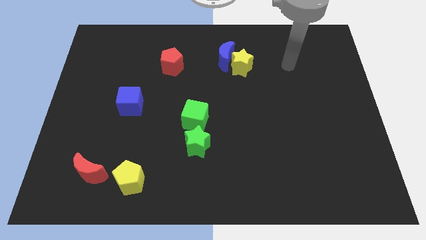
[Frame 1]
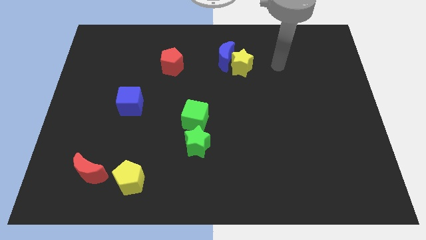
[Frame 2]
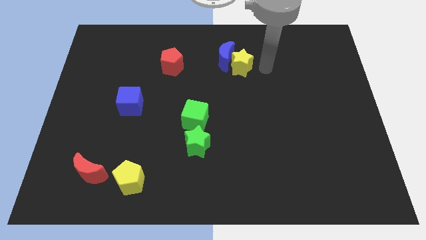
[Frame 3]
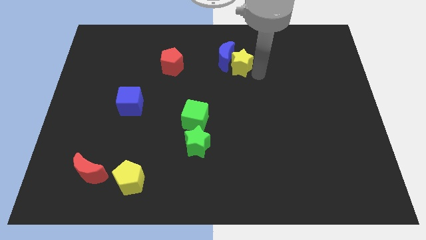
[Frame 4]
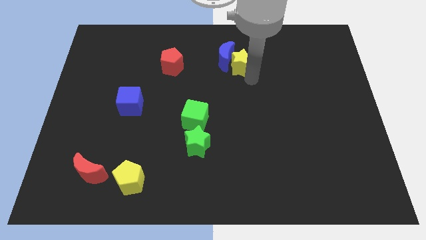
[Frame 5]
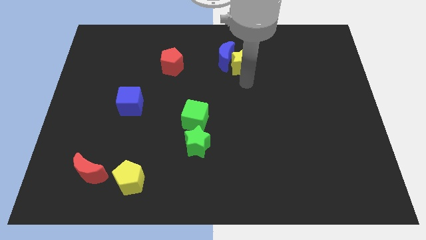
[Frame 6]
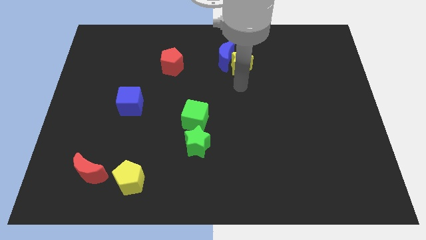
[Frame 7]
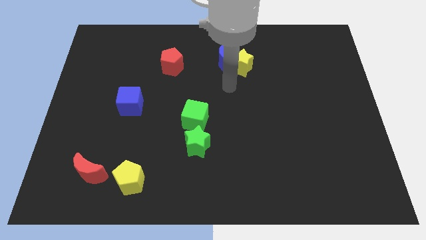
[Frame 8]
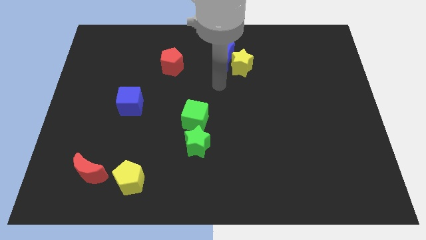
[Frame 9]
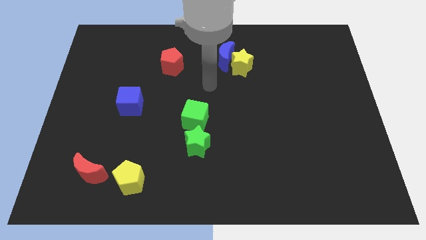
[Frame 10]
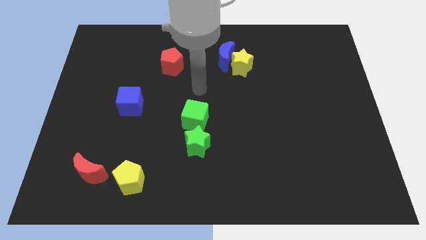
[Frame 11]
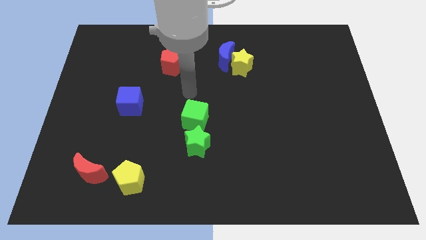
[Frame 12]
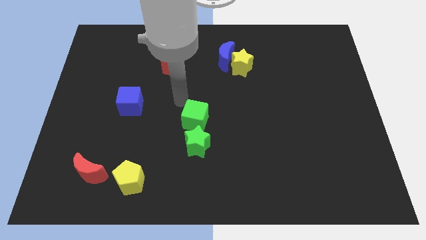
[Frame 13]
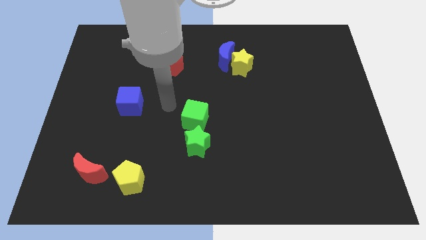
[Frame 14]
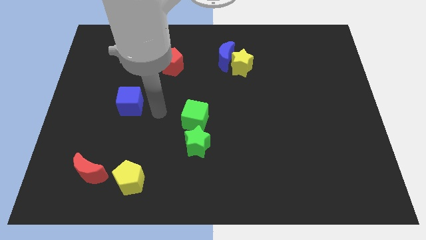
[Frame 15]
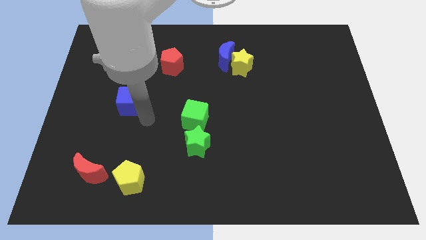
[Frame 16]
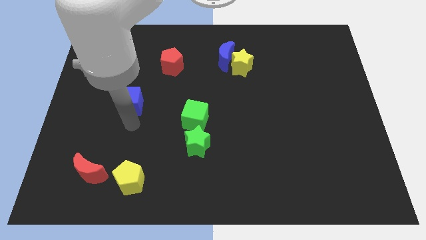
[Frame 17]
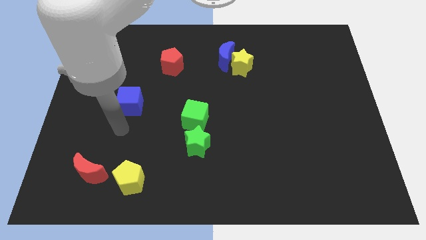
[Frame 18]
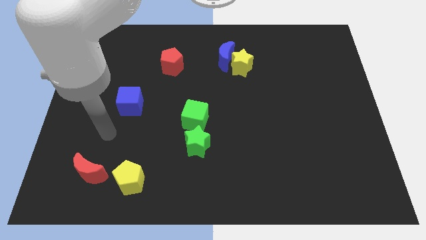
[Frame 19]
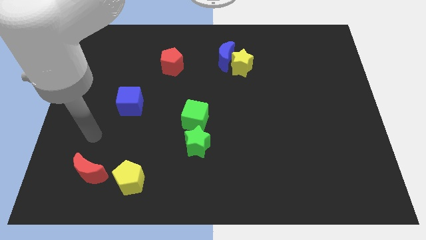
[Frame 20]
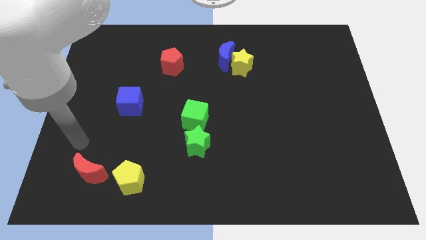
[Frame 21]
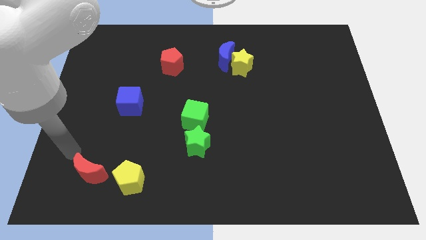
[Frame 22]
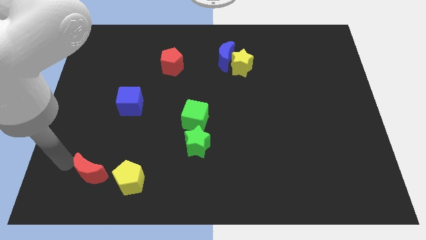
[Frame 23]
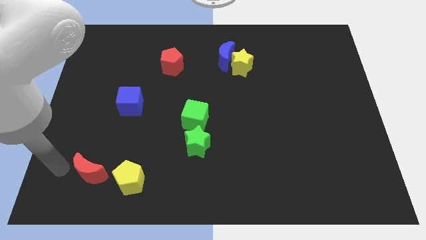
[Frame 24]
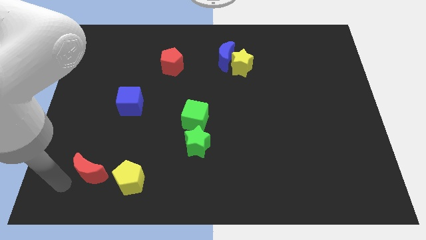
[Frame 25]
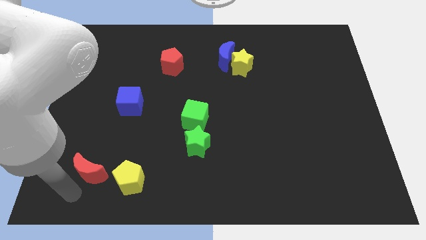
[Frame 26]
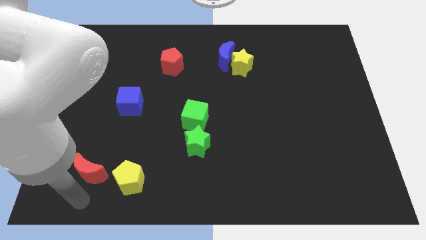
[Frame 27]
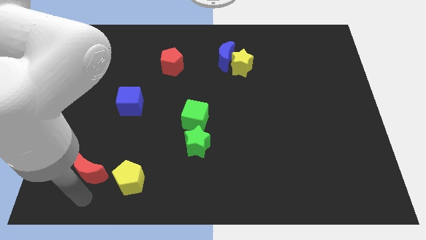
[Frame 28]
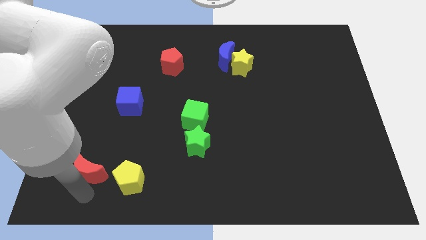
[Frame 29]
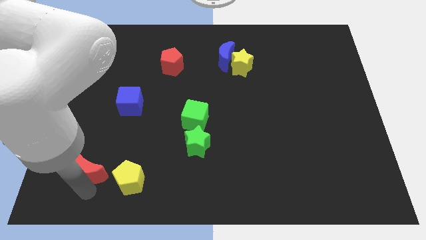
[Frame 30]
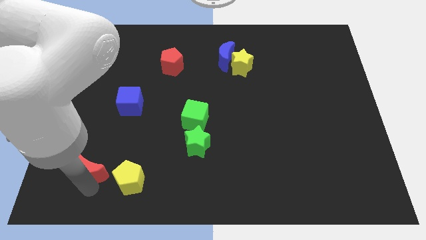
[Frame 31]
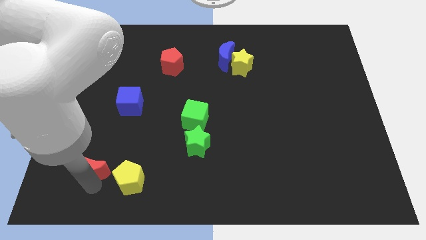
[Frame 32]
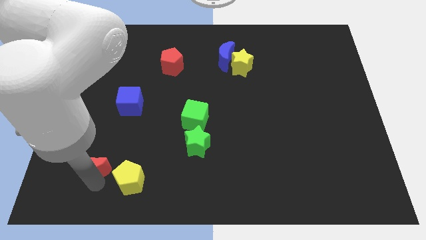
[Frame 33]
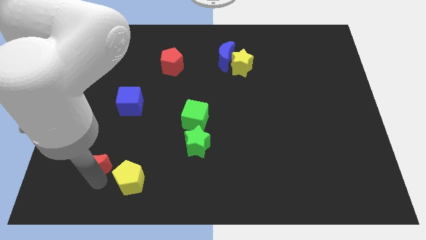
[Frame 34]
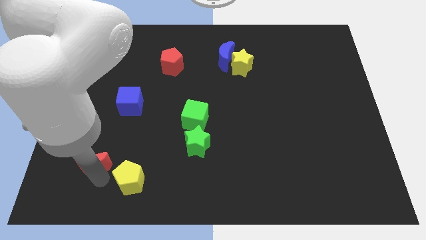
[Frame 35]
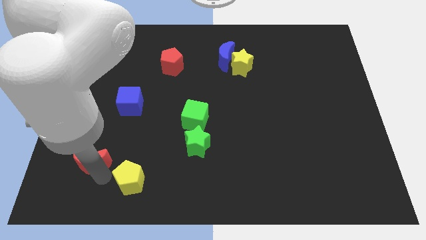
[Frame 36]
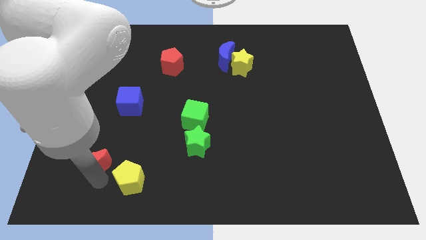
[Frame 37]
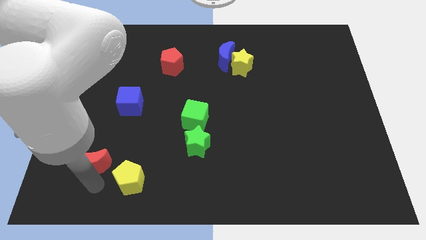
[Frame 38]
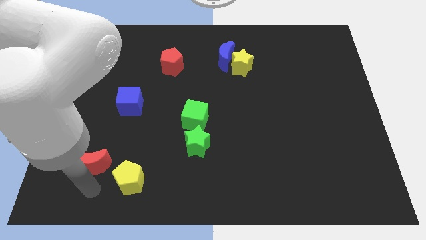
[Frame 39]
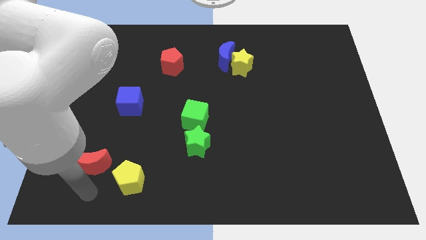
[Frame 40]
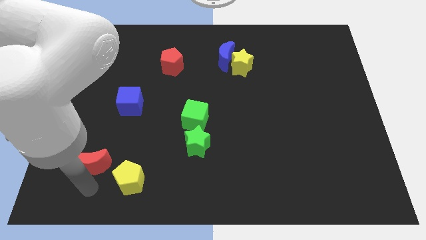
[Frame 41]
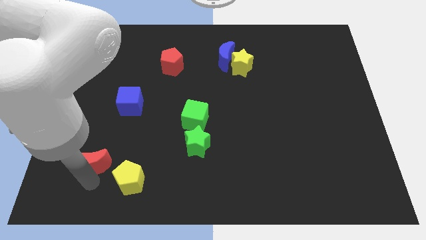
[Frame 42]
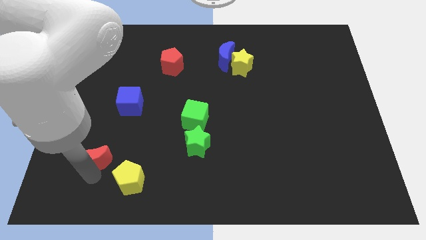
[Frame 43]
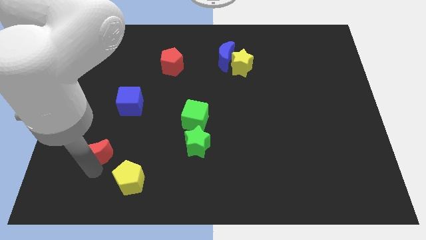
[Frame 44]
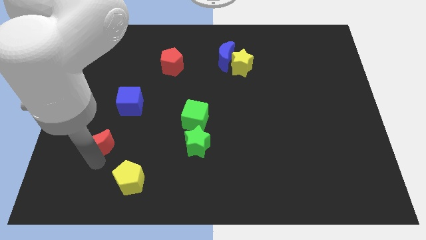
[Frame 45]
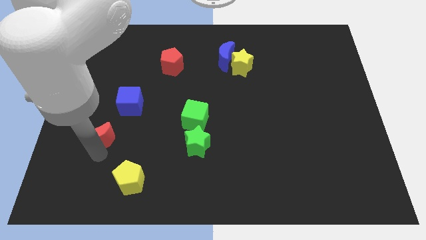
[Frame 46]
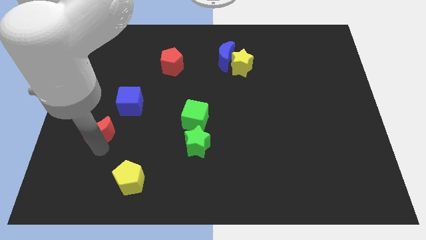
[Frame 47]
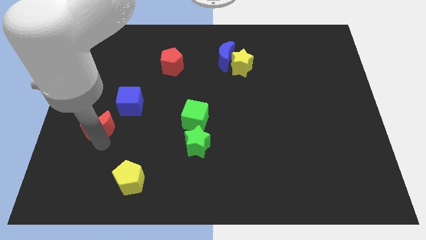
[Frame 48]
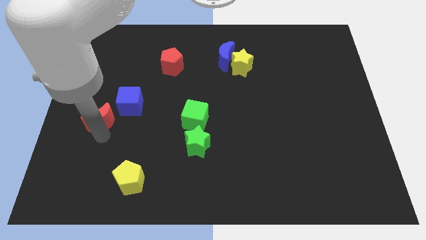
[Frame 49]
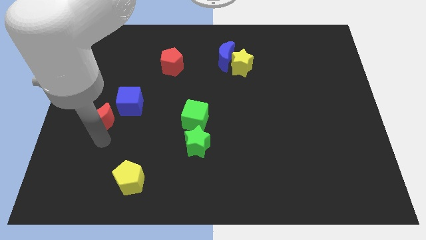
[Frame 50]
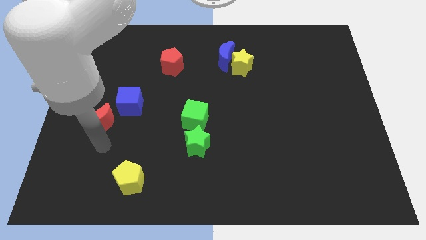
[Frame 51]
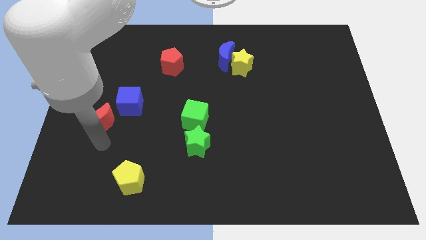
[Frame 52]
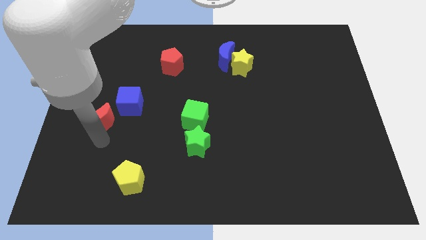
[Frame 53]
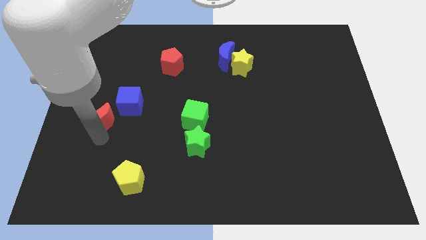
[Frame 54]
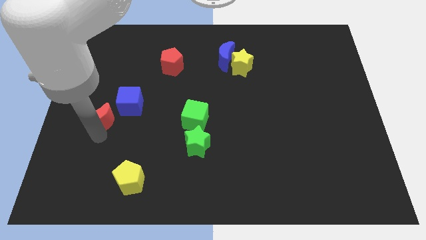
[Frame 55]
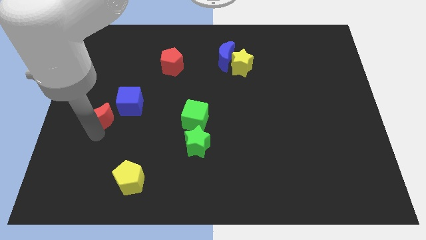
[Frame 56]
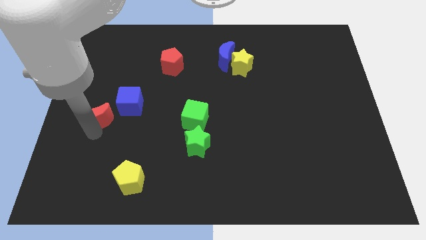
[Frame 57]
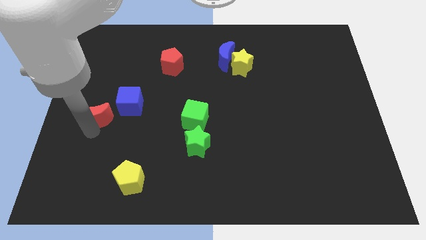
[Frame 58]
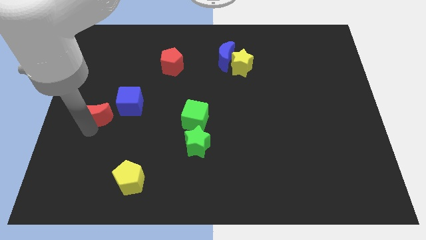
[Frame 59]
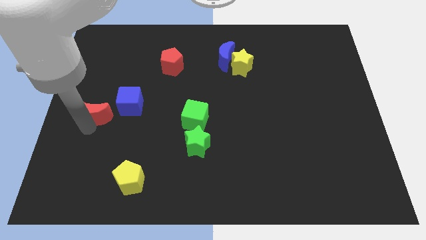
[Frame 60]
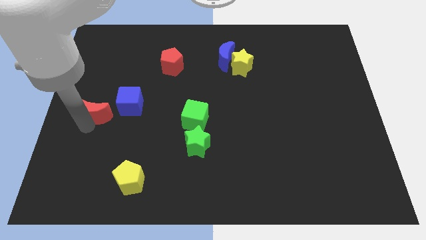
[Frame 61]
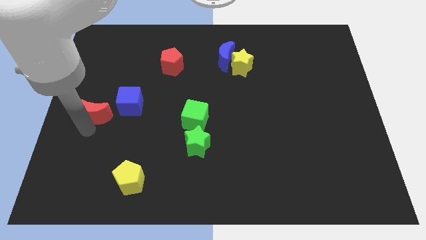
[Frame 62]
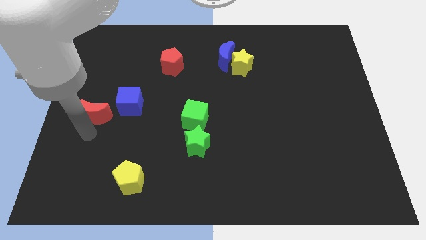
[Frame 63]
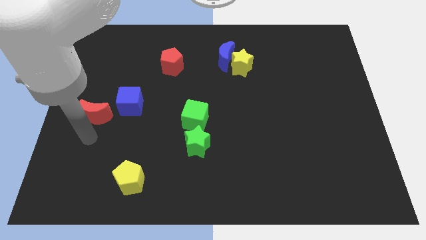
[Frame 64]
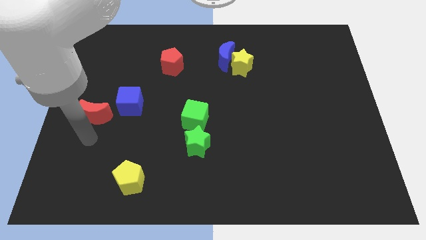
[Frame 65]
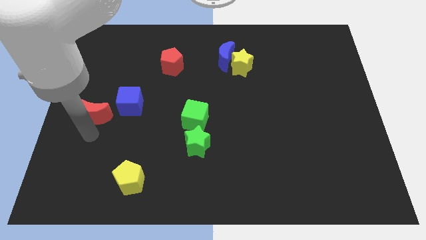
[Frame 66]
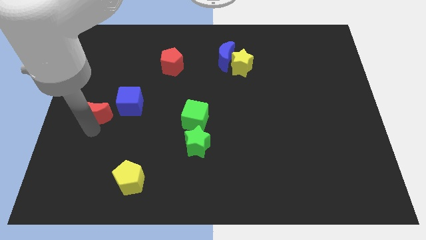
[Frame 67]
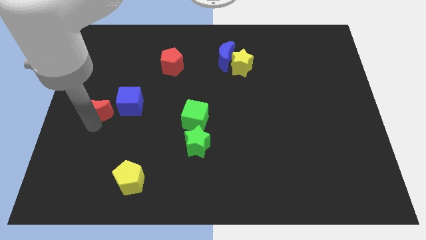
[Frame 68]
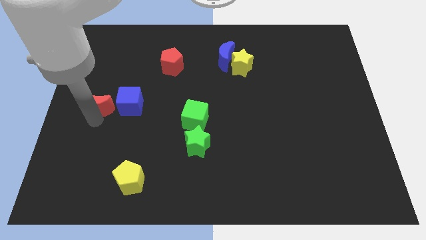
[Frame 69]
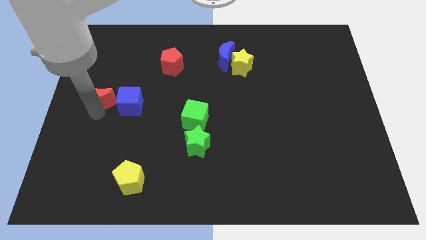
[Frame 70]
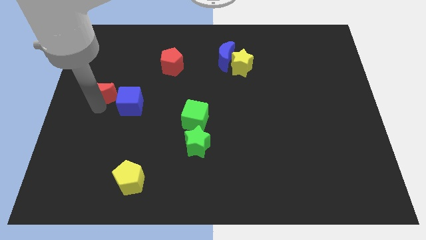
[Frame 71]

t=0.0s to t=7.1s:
move the red moon upwards

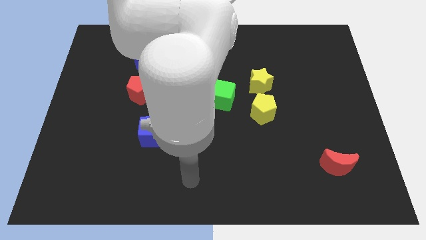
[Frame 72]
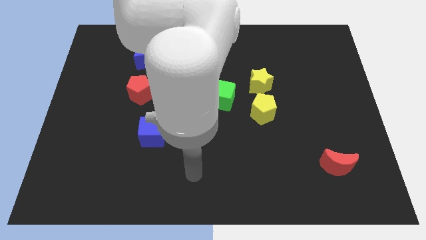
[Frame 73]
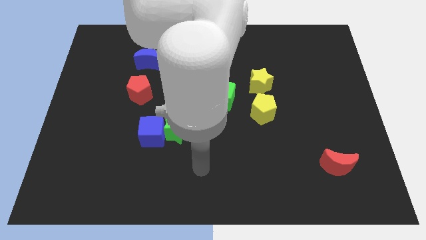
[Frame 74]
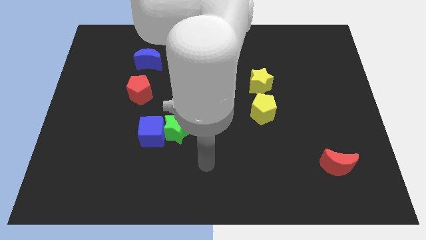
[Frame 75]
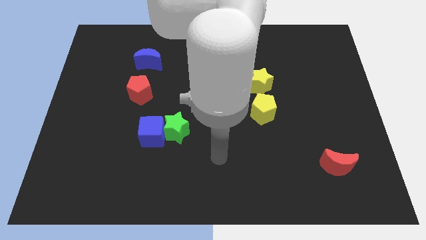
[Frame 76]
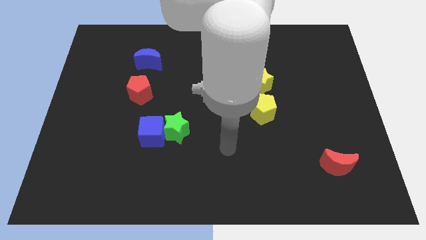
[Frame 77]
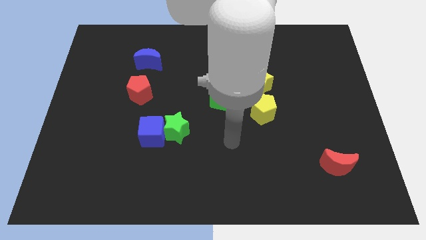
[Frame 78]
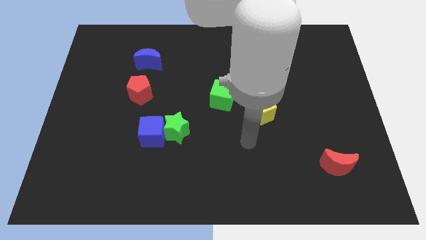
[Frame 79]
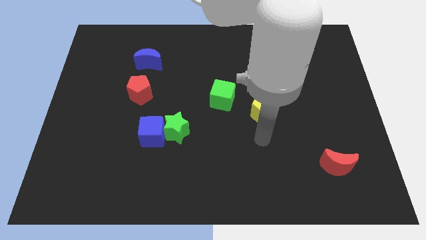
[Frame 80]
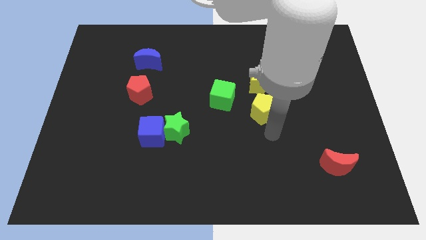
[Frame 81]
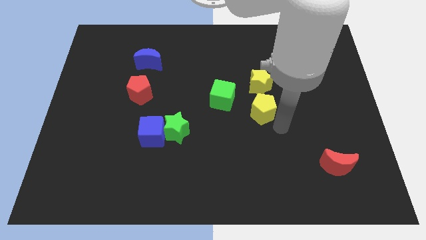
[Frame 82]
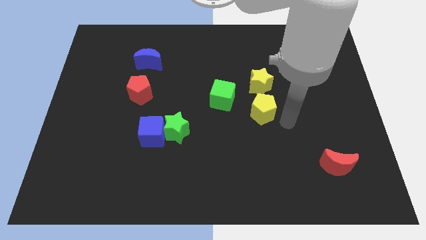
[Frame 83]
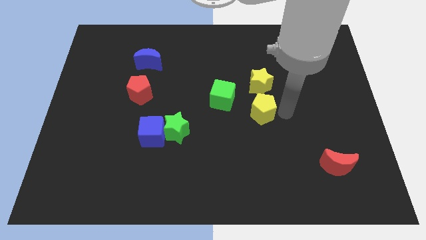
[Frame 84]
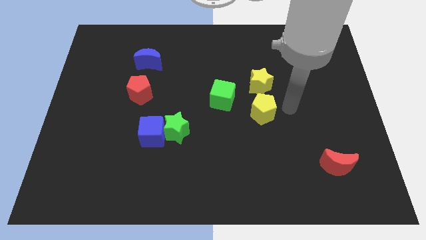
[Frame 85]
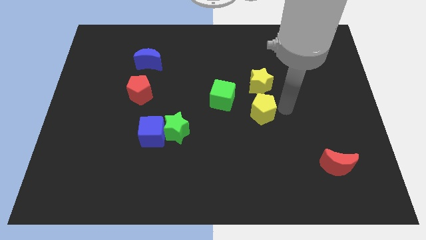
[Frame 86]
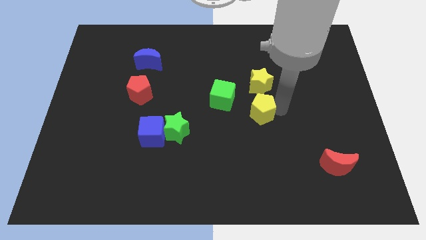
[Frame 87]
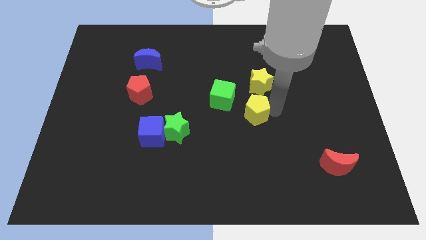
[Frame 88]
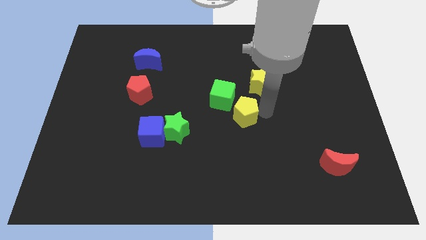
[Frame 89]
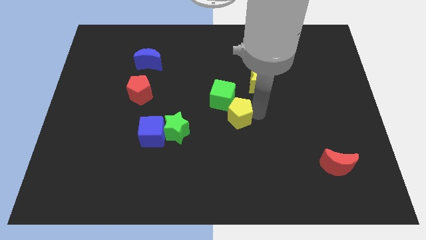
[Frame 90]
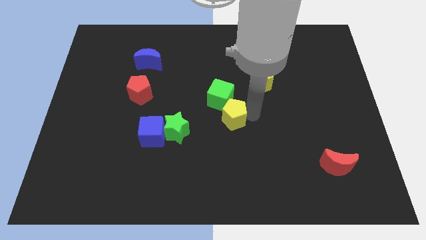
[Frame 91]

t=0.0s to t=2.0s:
move the yellow pentagon to the left somewhat
